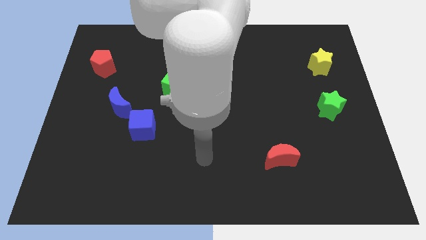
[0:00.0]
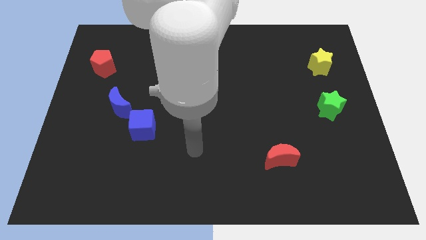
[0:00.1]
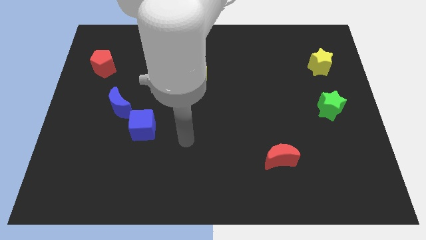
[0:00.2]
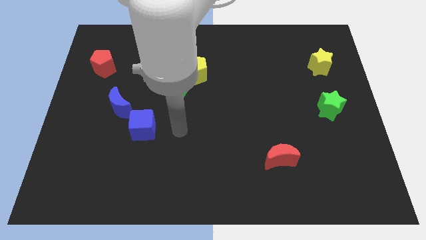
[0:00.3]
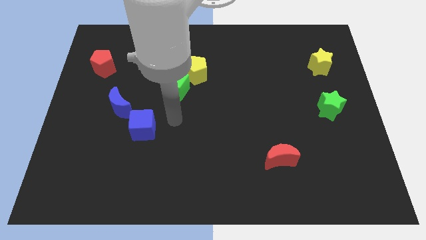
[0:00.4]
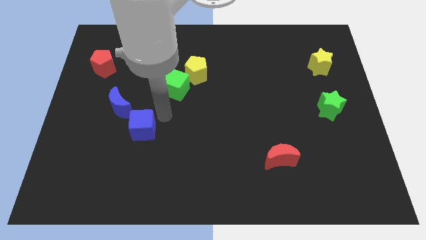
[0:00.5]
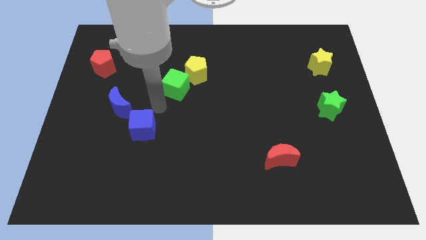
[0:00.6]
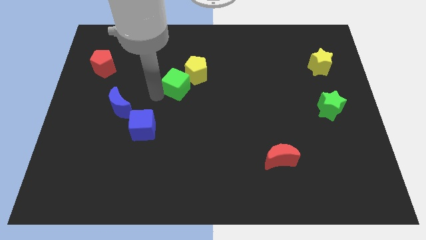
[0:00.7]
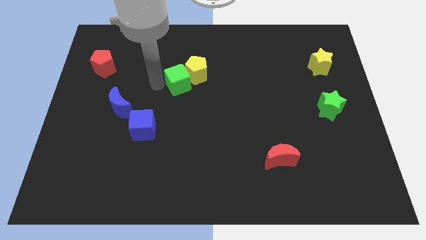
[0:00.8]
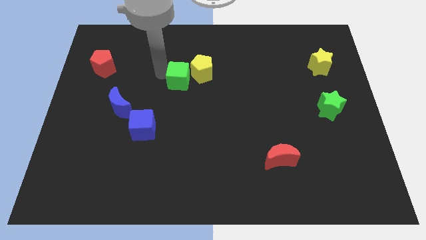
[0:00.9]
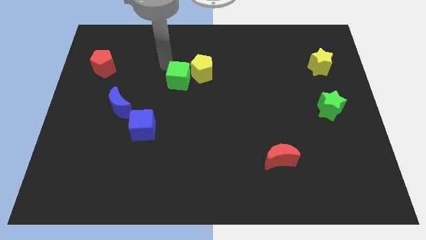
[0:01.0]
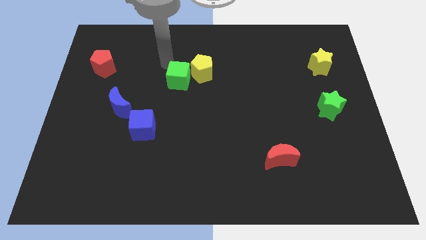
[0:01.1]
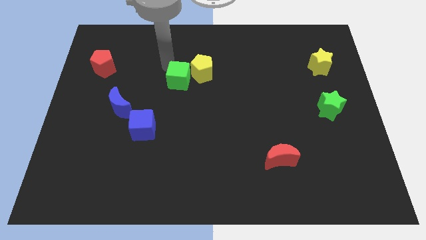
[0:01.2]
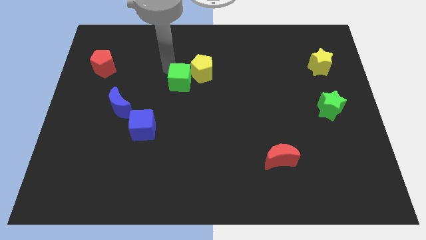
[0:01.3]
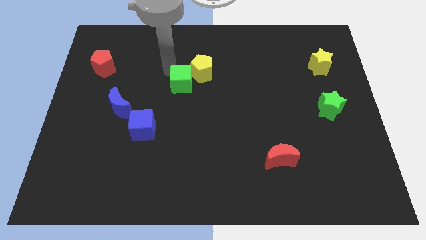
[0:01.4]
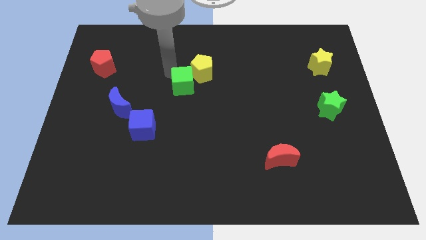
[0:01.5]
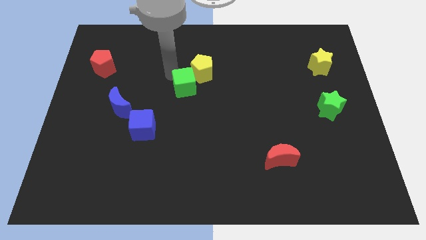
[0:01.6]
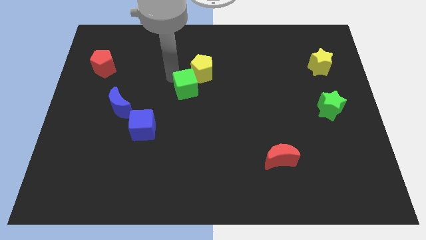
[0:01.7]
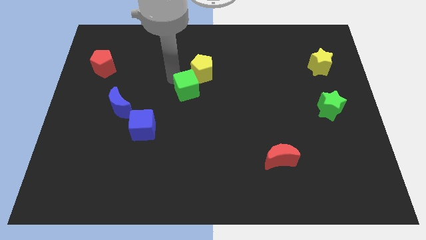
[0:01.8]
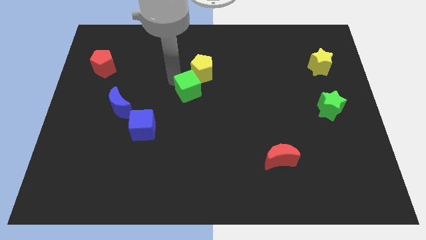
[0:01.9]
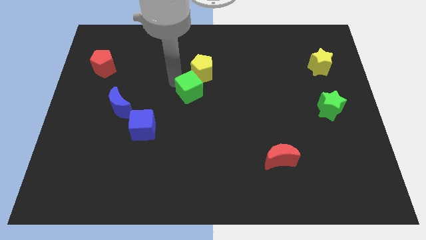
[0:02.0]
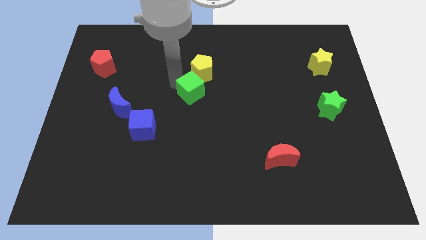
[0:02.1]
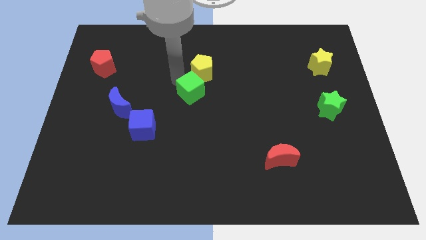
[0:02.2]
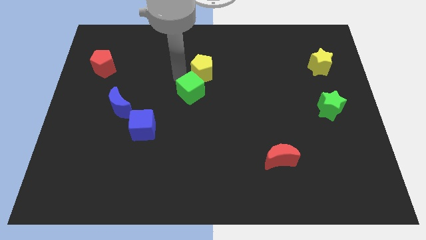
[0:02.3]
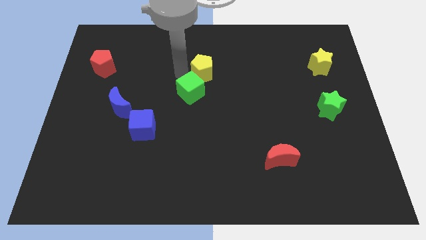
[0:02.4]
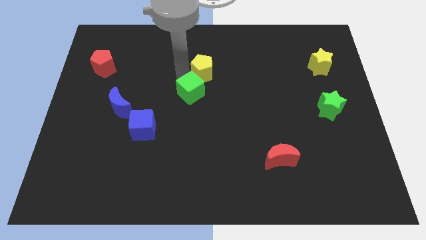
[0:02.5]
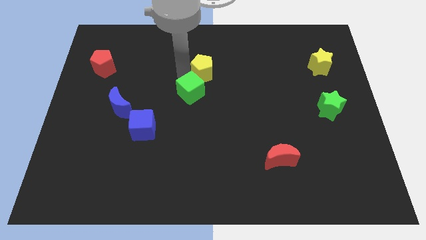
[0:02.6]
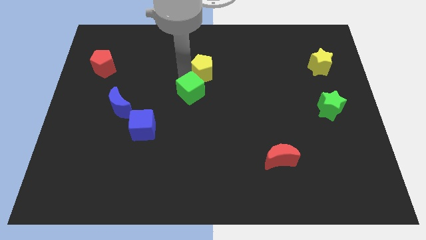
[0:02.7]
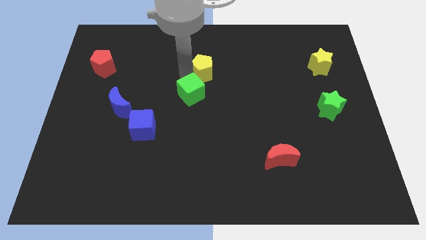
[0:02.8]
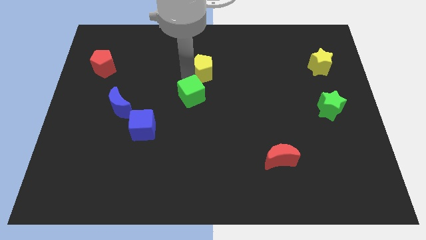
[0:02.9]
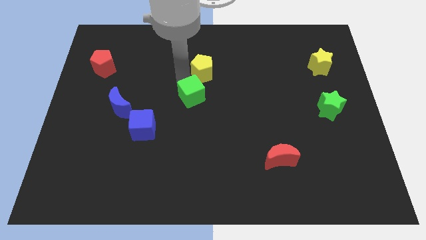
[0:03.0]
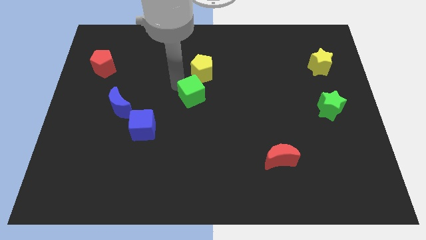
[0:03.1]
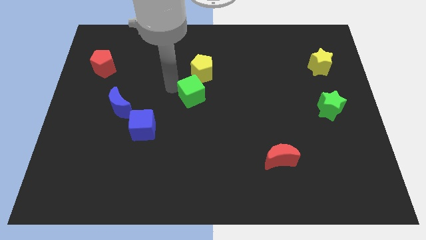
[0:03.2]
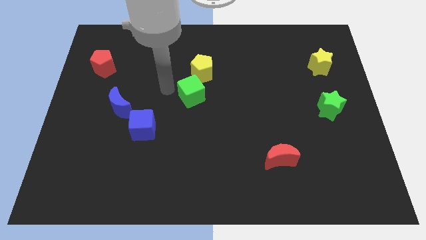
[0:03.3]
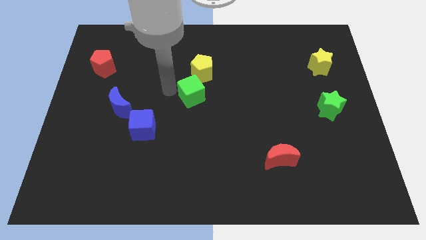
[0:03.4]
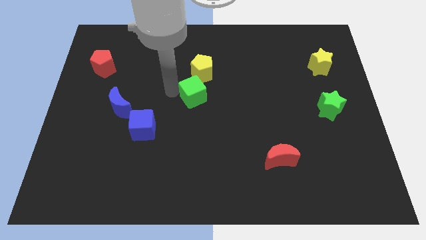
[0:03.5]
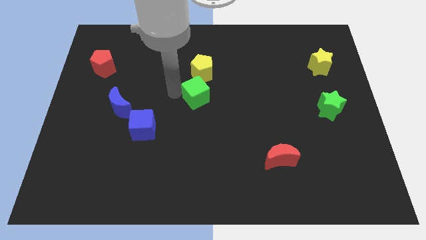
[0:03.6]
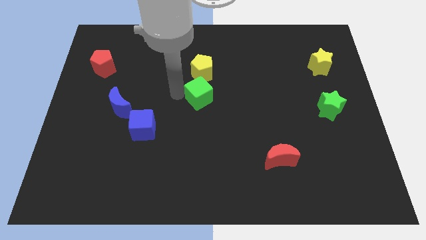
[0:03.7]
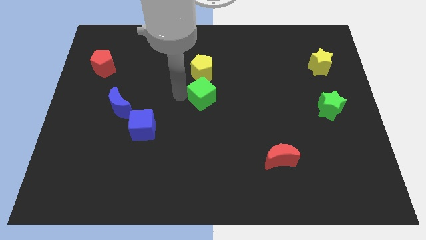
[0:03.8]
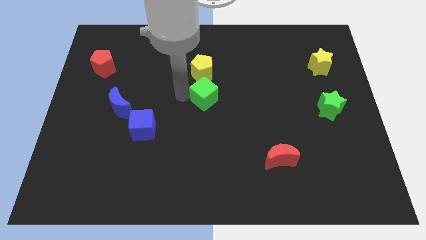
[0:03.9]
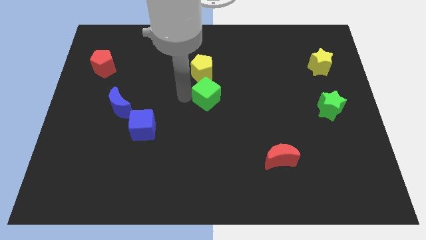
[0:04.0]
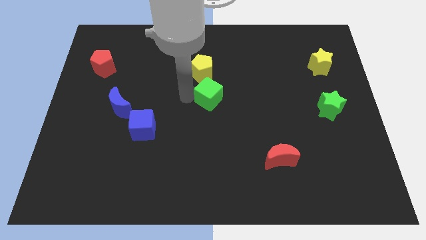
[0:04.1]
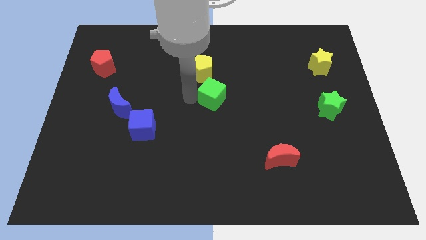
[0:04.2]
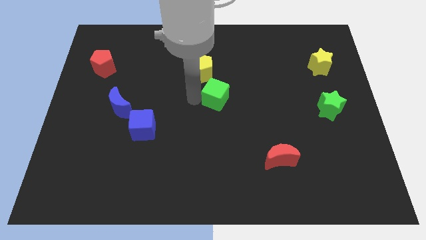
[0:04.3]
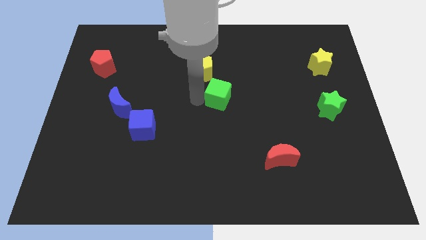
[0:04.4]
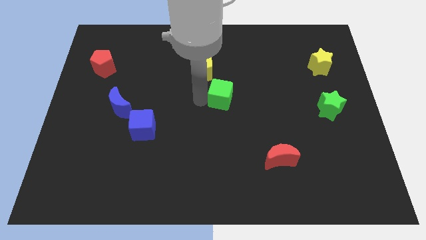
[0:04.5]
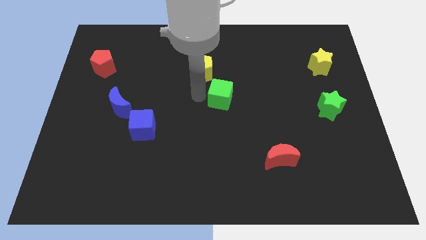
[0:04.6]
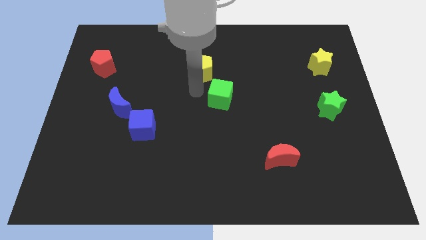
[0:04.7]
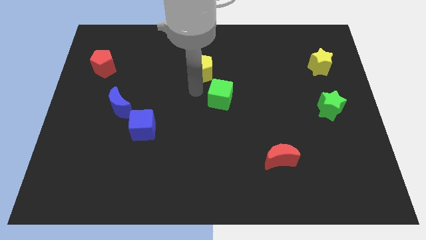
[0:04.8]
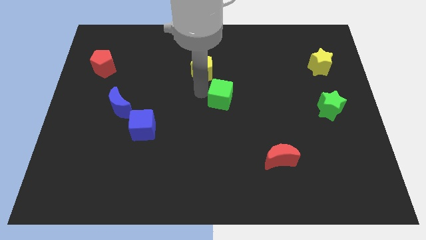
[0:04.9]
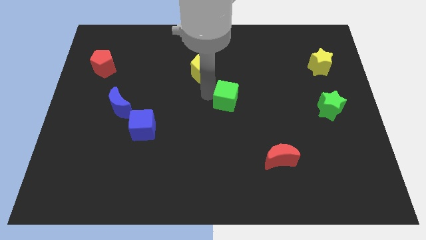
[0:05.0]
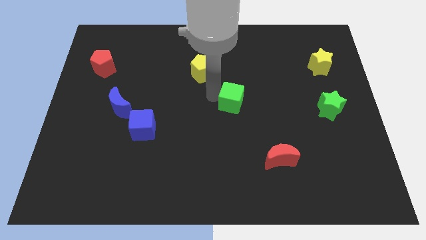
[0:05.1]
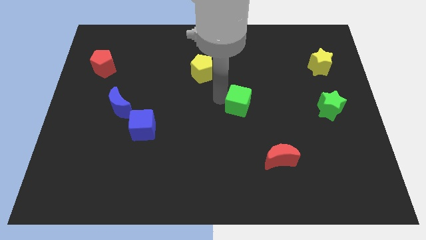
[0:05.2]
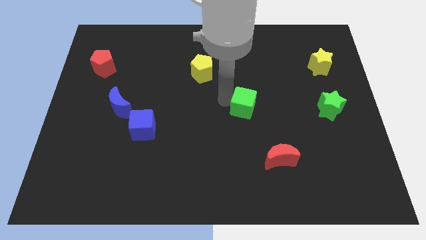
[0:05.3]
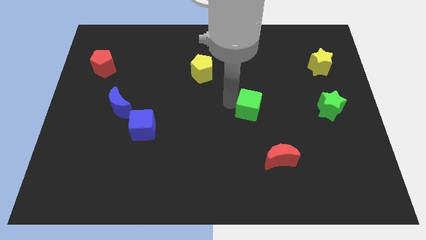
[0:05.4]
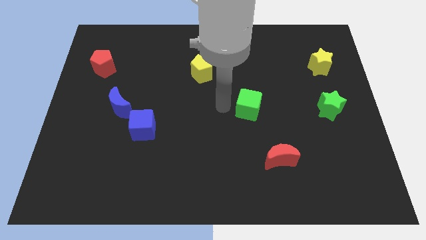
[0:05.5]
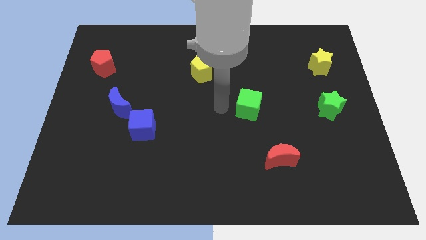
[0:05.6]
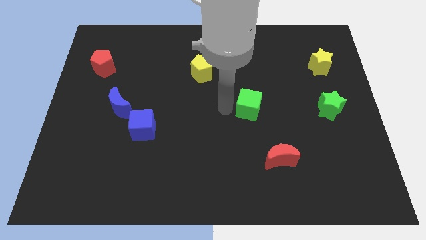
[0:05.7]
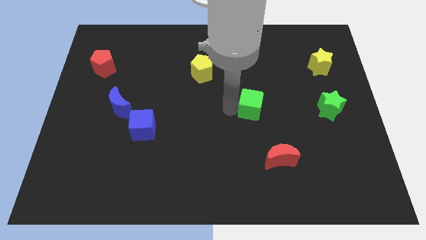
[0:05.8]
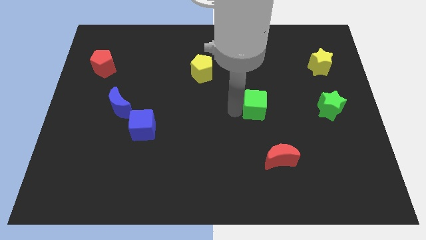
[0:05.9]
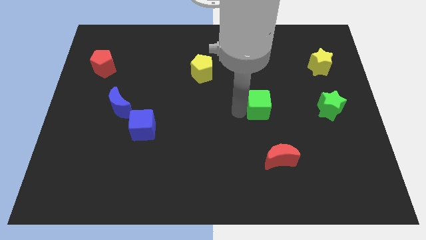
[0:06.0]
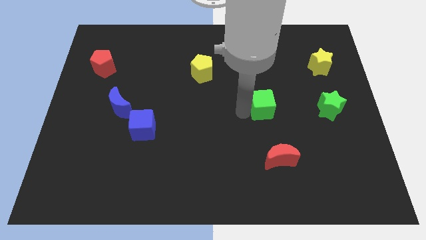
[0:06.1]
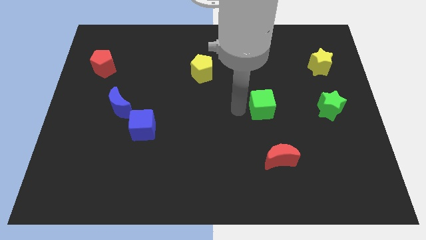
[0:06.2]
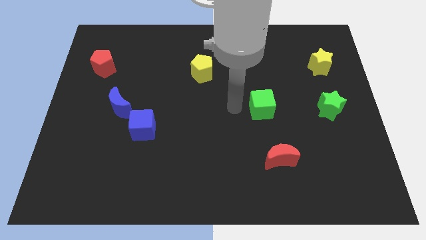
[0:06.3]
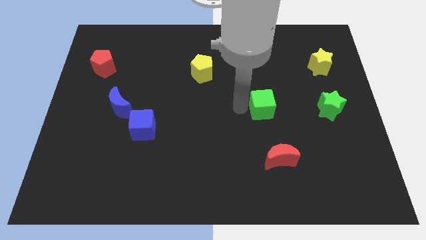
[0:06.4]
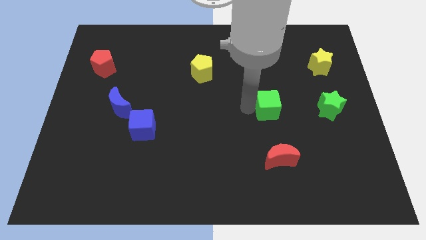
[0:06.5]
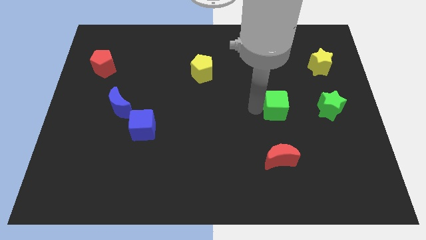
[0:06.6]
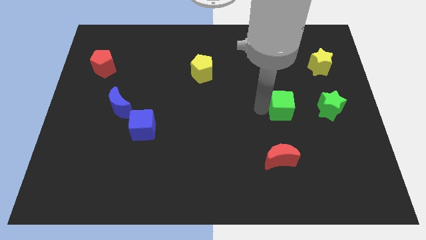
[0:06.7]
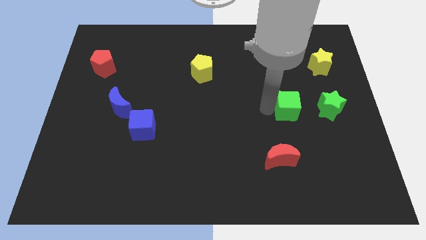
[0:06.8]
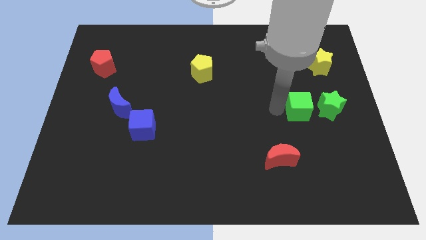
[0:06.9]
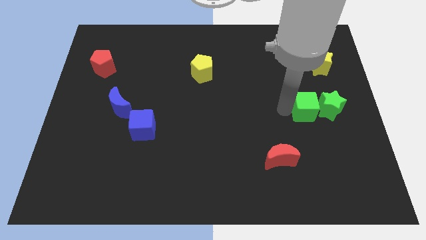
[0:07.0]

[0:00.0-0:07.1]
move the green cube to the green star
